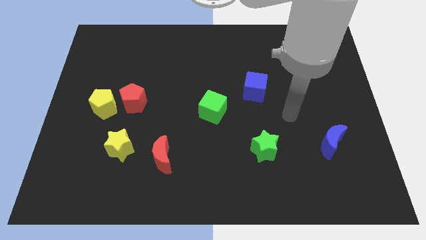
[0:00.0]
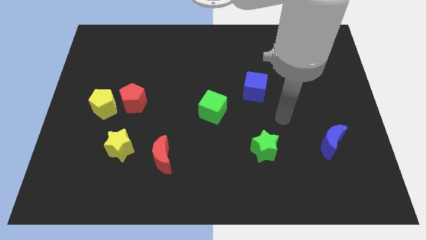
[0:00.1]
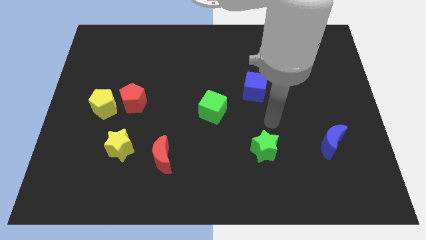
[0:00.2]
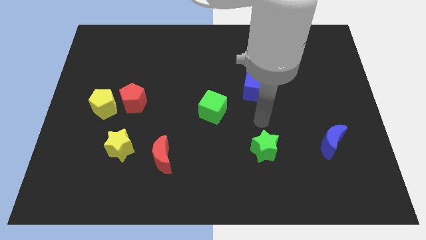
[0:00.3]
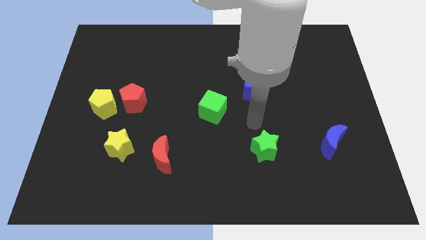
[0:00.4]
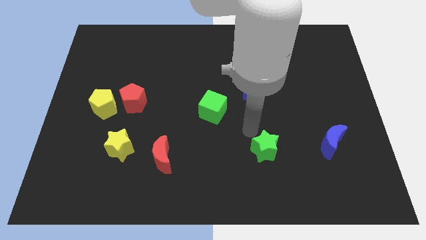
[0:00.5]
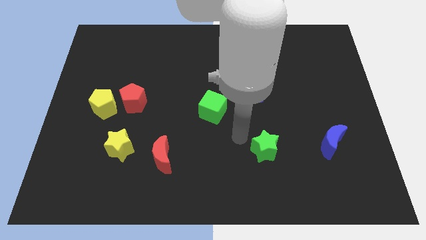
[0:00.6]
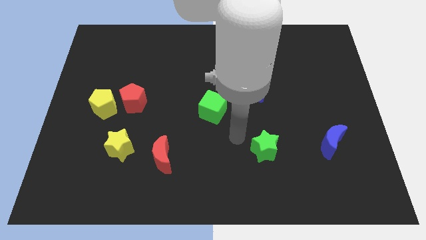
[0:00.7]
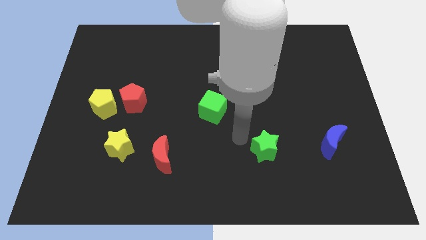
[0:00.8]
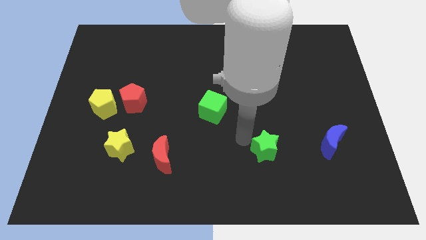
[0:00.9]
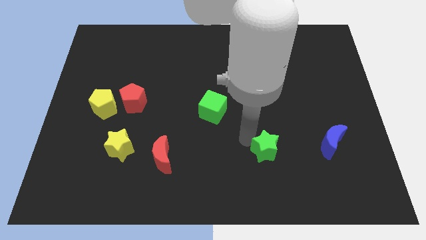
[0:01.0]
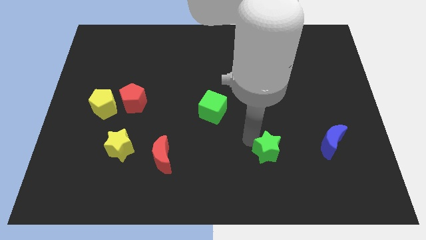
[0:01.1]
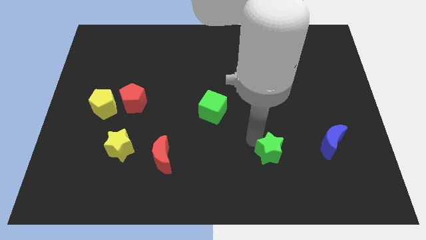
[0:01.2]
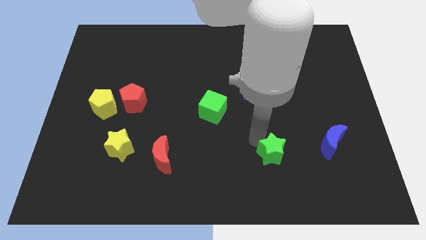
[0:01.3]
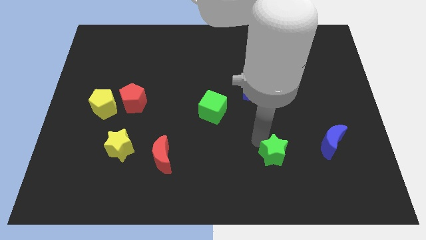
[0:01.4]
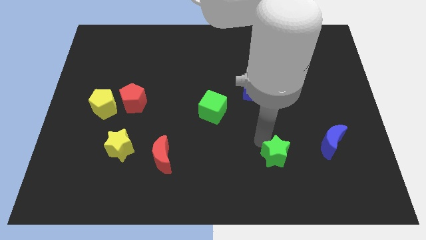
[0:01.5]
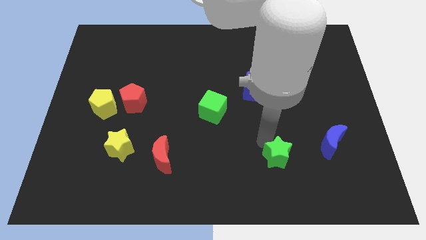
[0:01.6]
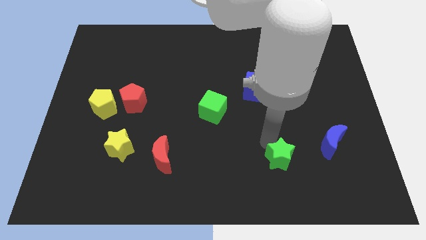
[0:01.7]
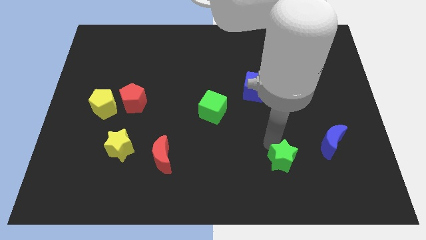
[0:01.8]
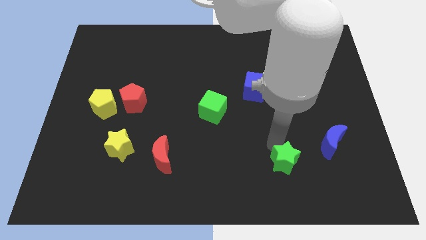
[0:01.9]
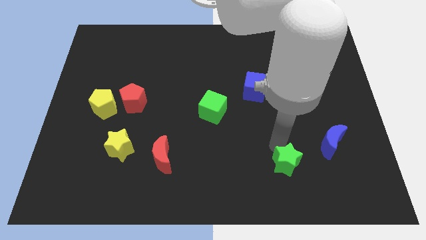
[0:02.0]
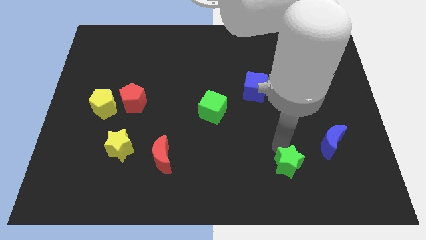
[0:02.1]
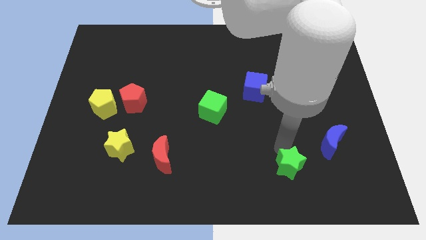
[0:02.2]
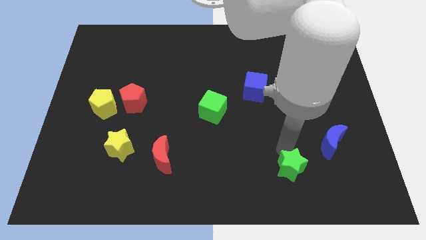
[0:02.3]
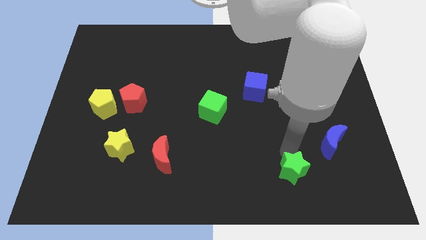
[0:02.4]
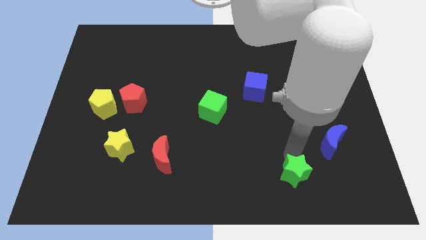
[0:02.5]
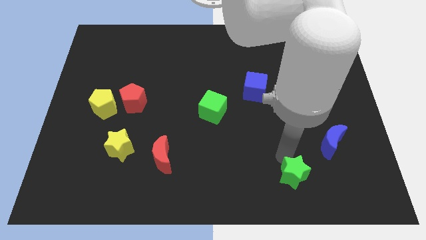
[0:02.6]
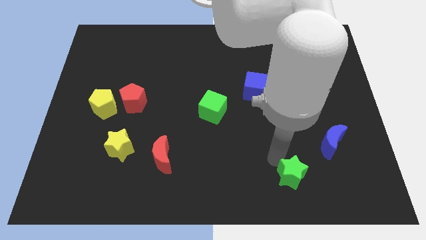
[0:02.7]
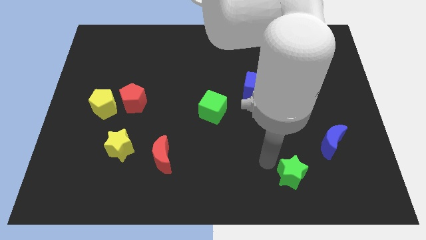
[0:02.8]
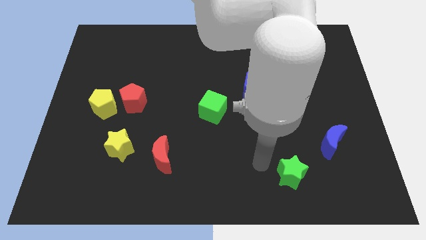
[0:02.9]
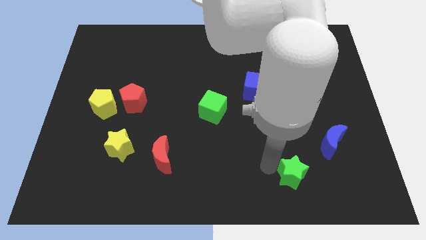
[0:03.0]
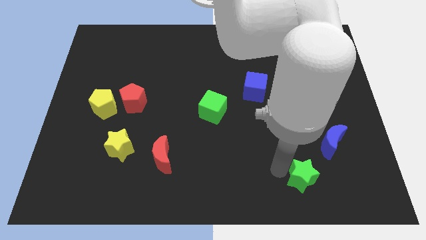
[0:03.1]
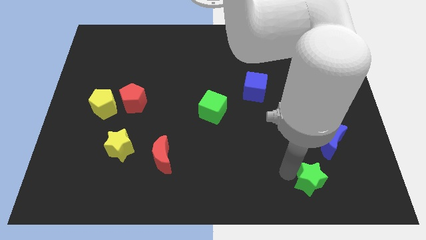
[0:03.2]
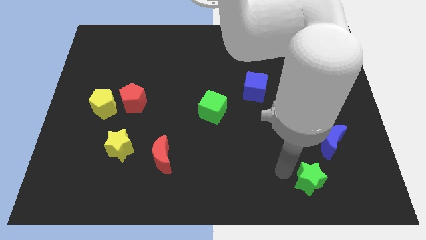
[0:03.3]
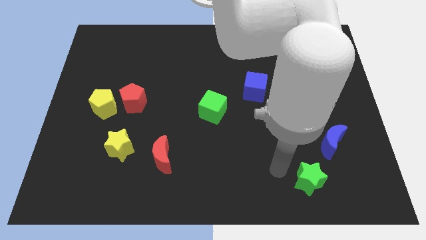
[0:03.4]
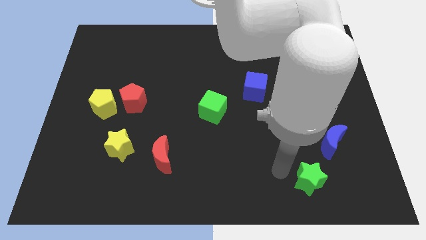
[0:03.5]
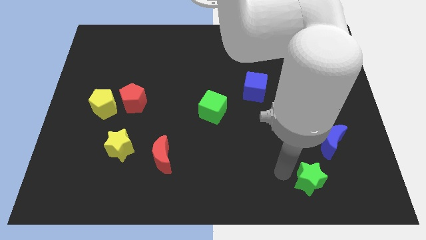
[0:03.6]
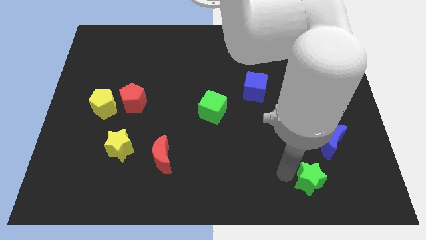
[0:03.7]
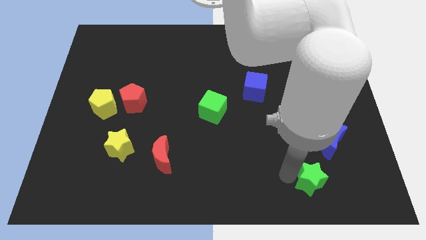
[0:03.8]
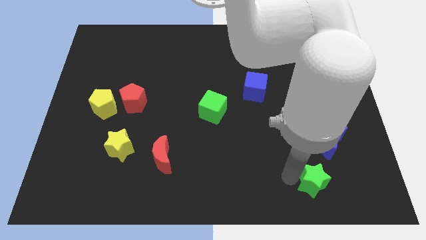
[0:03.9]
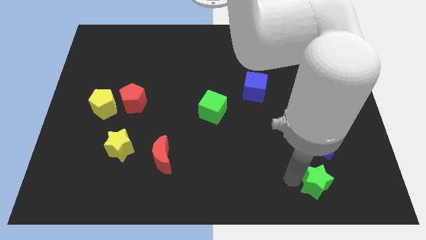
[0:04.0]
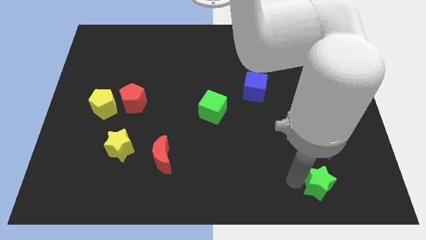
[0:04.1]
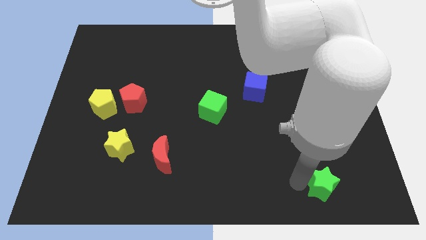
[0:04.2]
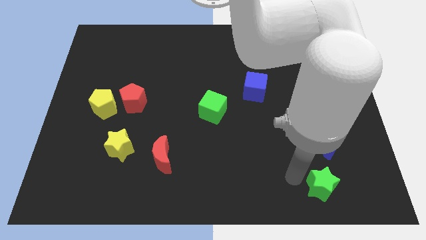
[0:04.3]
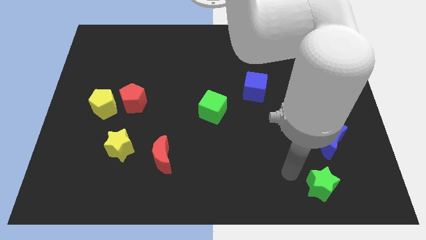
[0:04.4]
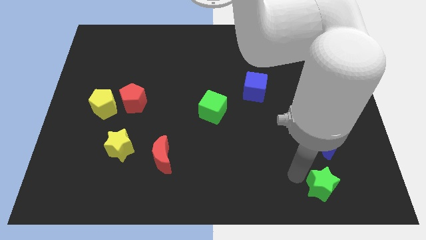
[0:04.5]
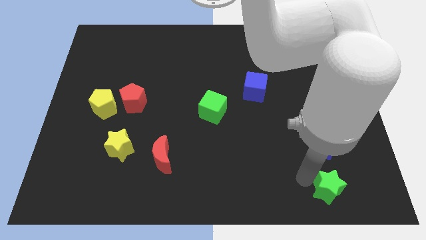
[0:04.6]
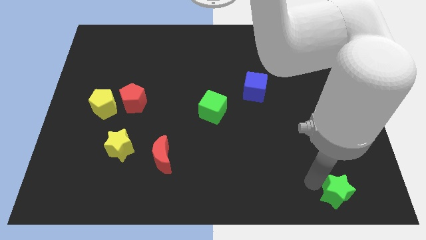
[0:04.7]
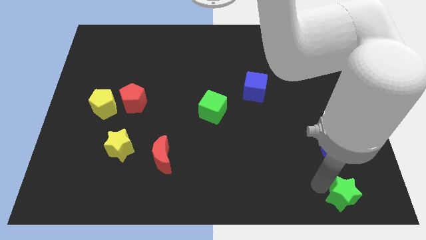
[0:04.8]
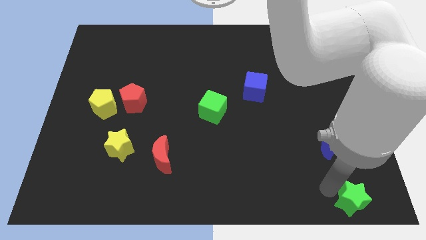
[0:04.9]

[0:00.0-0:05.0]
put the green star to the lower right corner

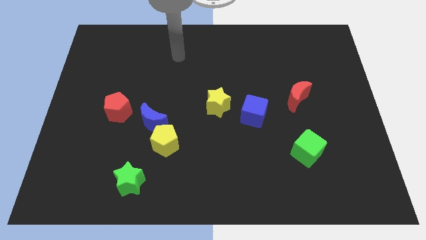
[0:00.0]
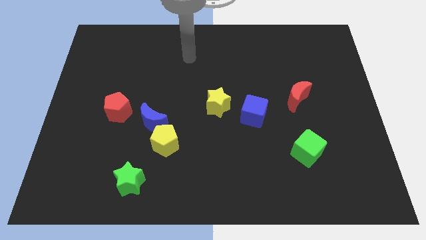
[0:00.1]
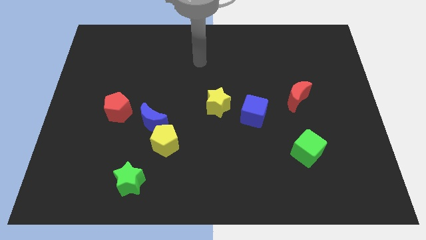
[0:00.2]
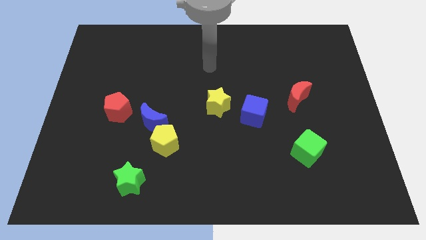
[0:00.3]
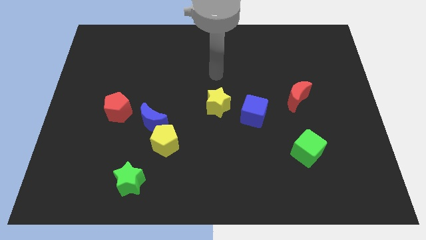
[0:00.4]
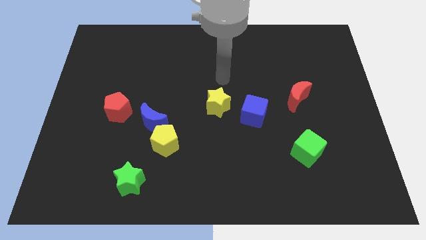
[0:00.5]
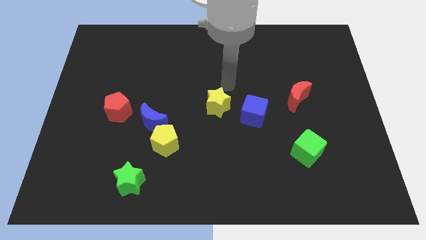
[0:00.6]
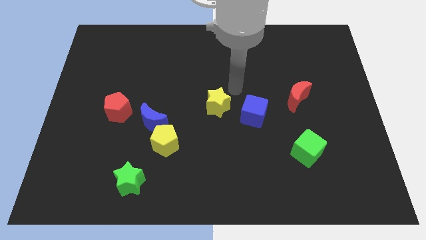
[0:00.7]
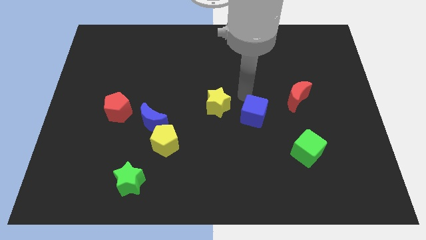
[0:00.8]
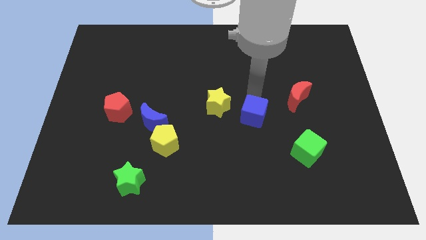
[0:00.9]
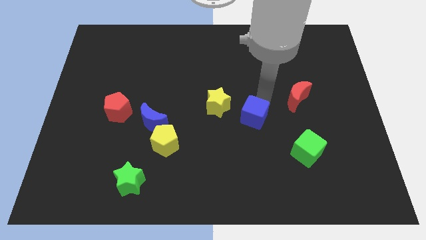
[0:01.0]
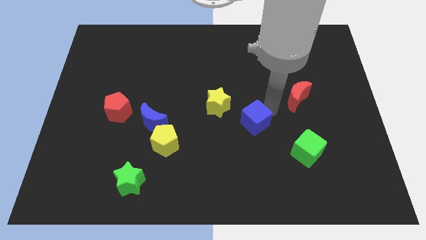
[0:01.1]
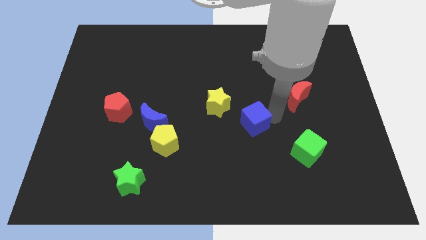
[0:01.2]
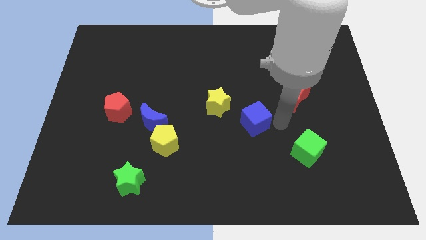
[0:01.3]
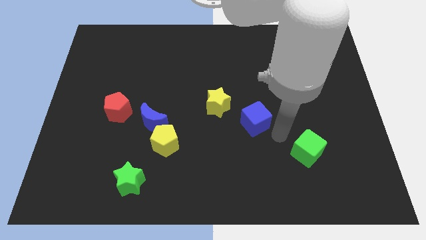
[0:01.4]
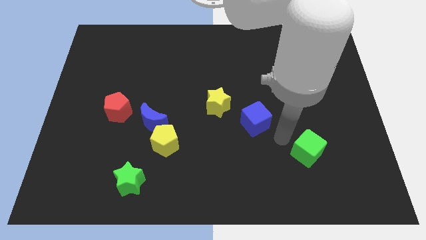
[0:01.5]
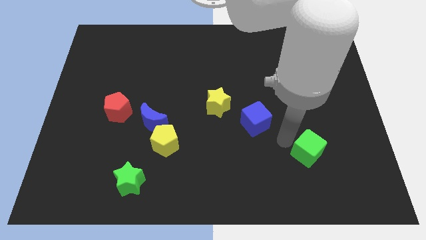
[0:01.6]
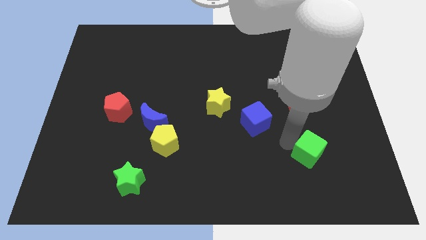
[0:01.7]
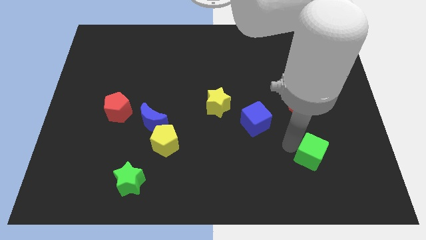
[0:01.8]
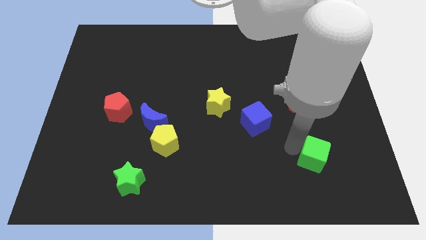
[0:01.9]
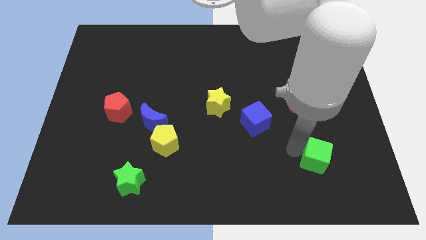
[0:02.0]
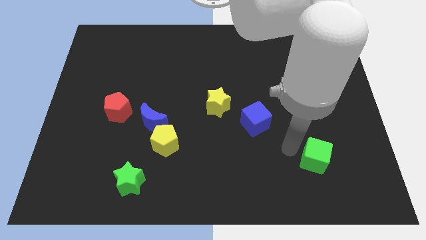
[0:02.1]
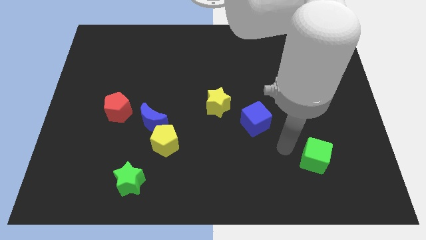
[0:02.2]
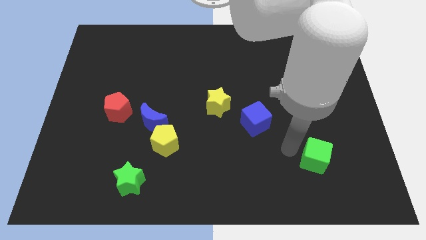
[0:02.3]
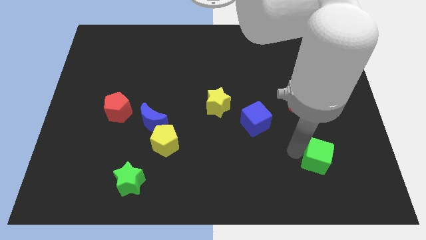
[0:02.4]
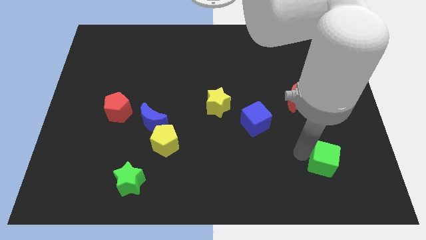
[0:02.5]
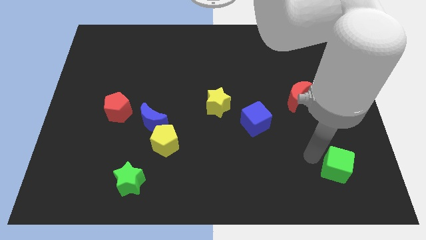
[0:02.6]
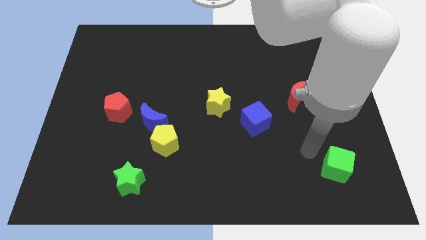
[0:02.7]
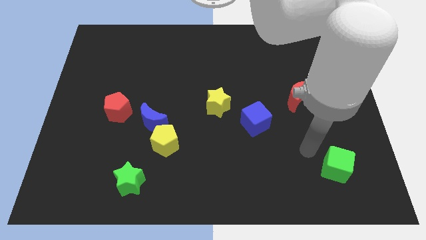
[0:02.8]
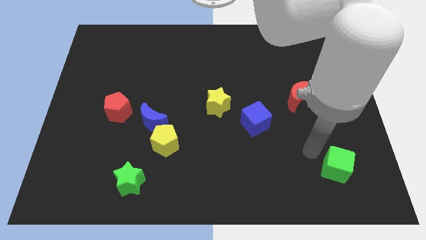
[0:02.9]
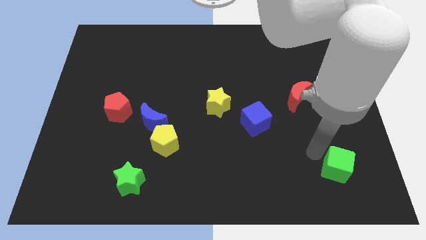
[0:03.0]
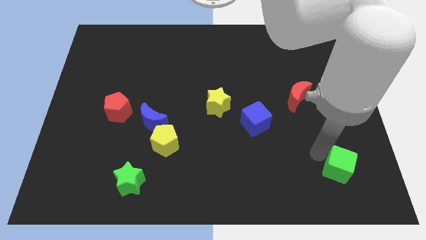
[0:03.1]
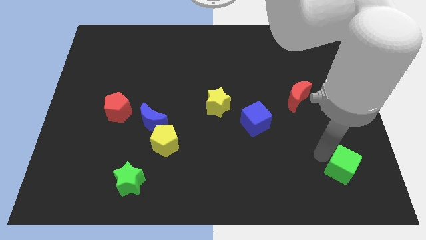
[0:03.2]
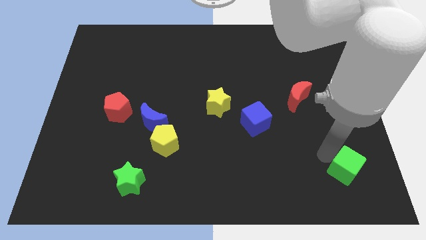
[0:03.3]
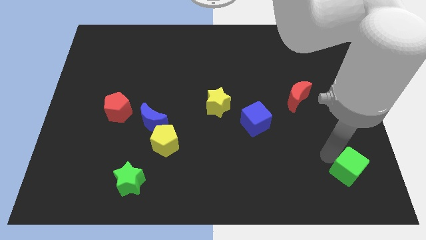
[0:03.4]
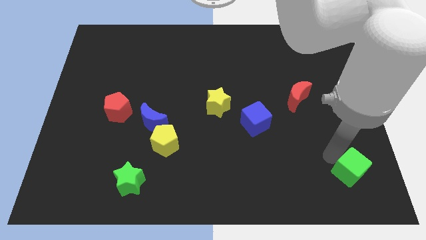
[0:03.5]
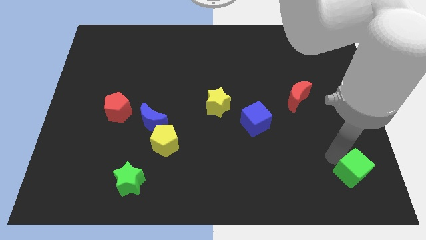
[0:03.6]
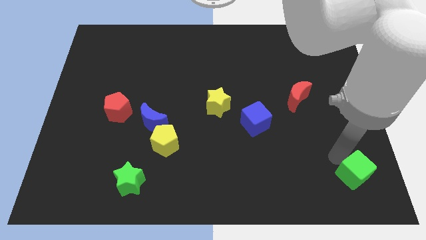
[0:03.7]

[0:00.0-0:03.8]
slide the green cube to the bottom right
